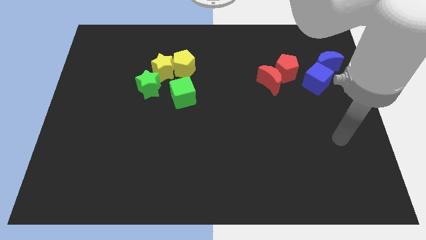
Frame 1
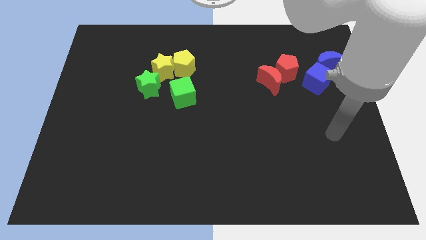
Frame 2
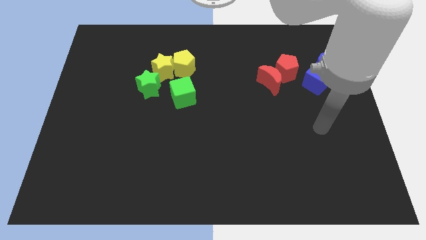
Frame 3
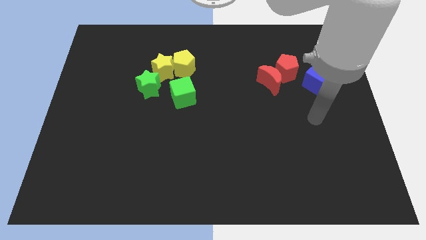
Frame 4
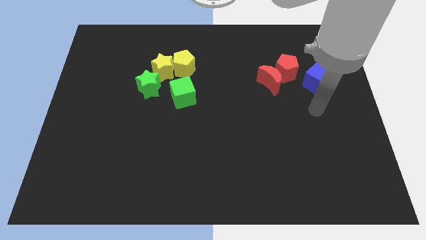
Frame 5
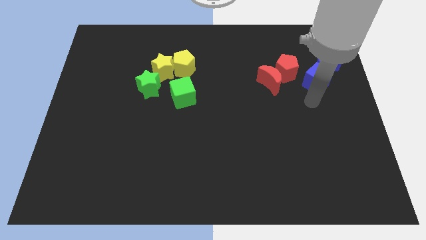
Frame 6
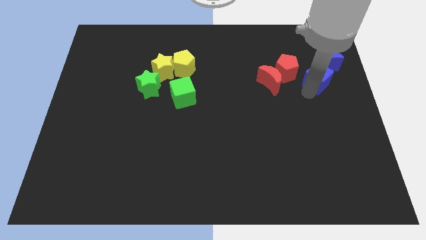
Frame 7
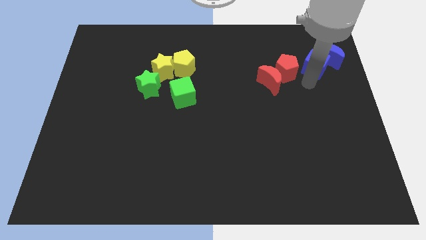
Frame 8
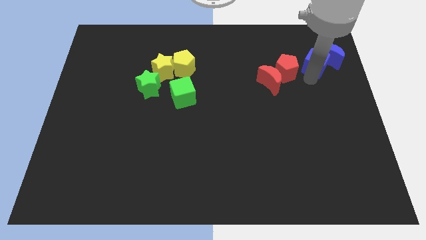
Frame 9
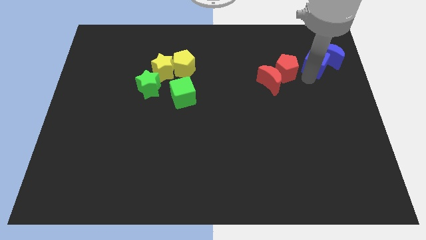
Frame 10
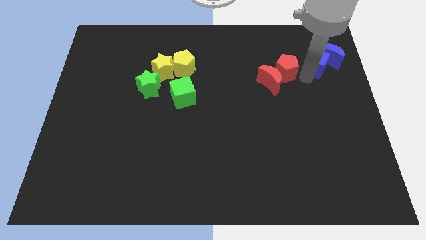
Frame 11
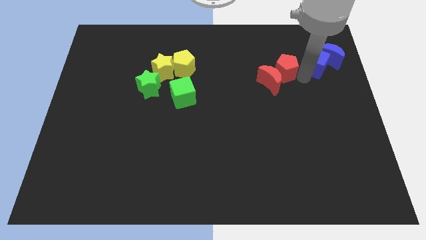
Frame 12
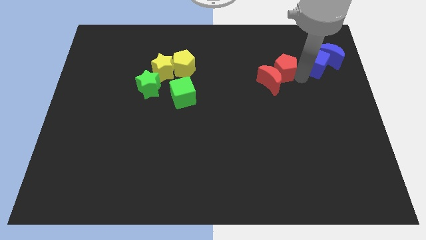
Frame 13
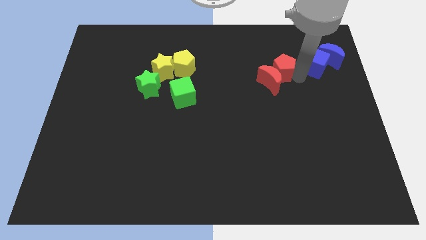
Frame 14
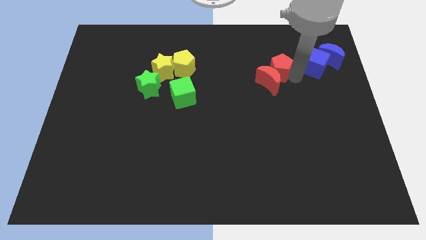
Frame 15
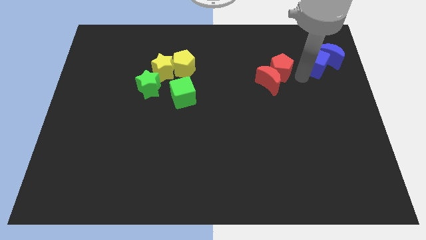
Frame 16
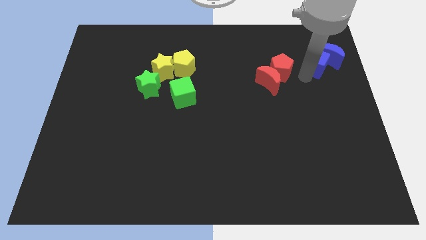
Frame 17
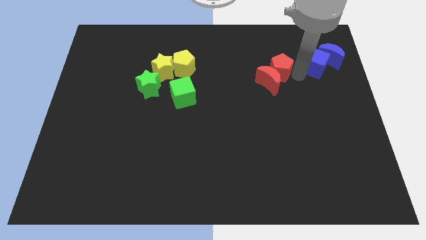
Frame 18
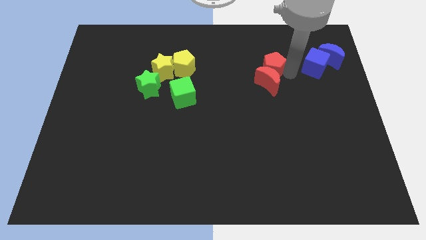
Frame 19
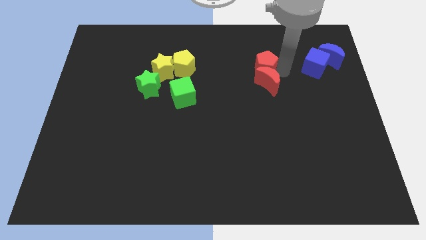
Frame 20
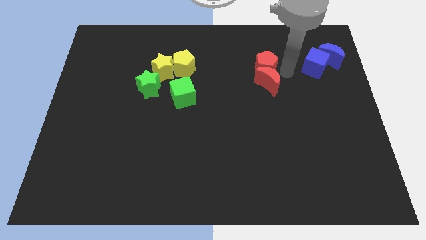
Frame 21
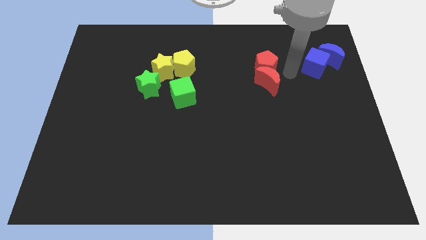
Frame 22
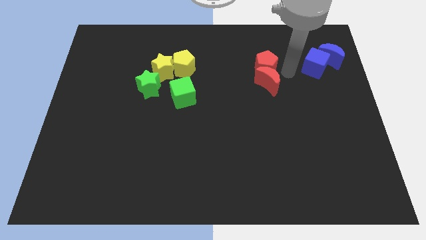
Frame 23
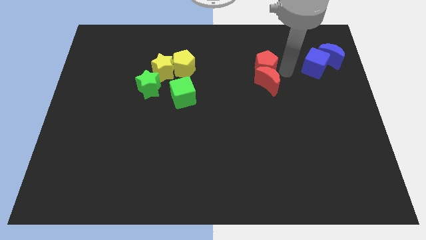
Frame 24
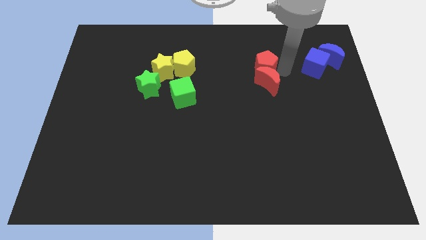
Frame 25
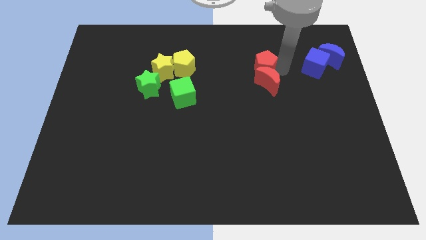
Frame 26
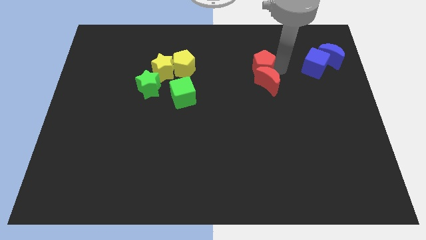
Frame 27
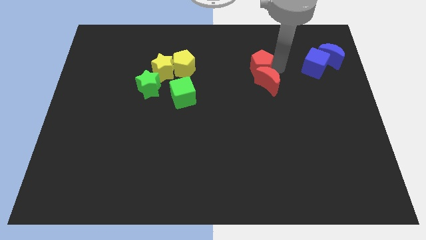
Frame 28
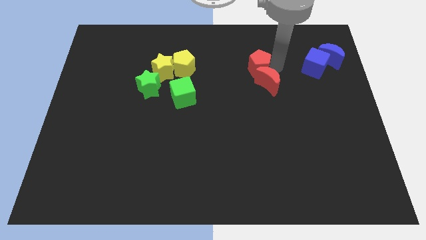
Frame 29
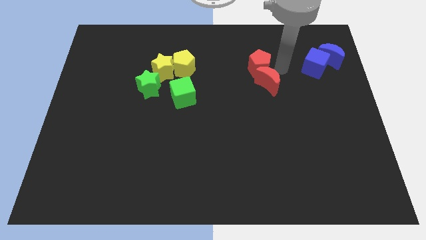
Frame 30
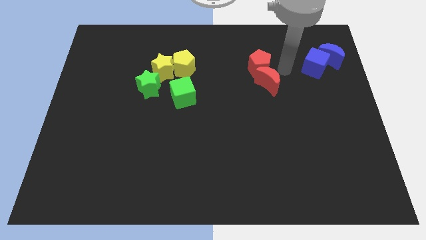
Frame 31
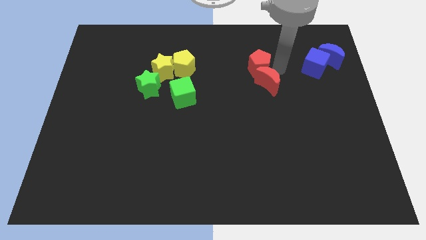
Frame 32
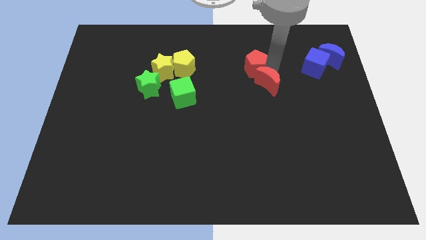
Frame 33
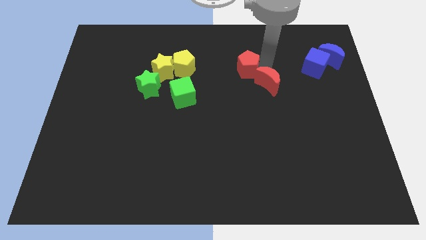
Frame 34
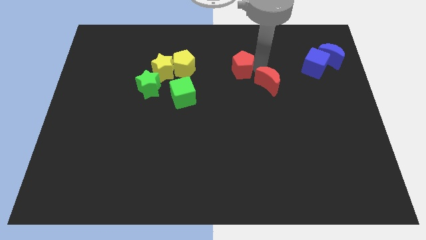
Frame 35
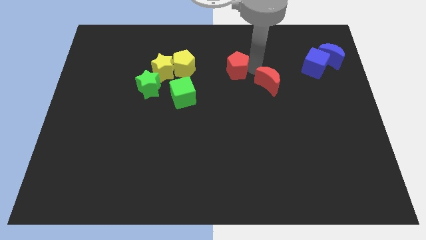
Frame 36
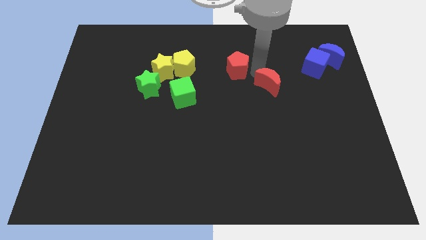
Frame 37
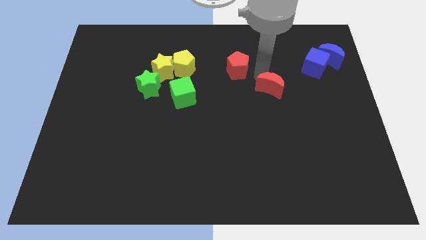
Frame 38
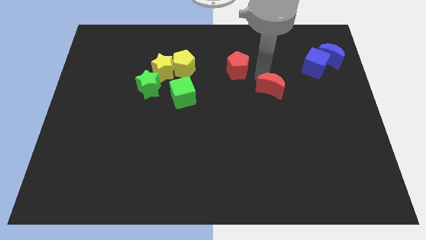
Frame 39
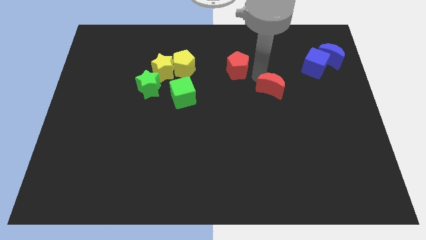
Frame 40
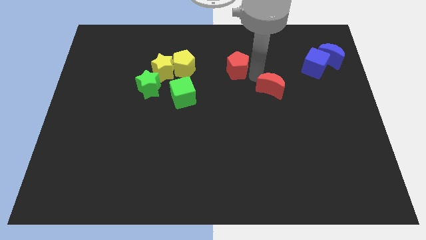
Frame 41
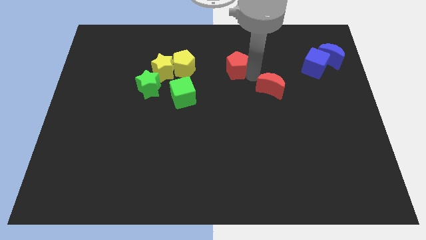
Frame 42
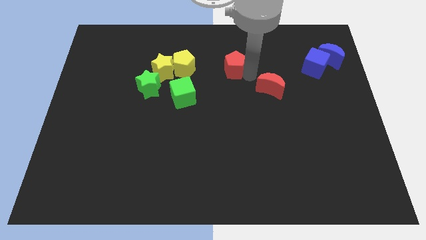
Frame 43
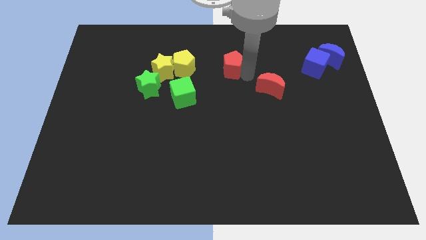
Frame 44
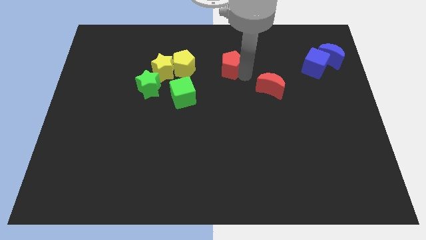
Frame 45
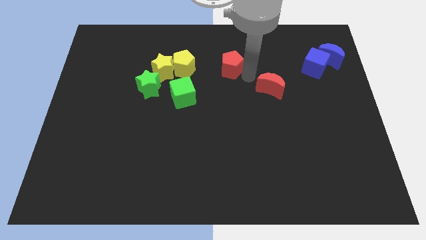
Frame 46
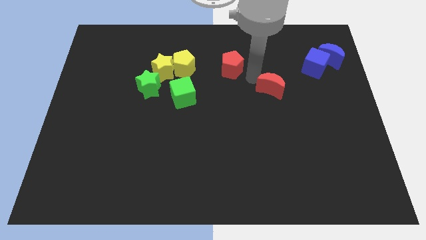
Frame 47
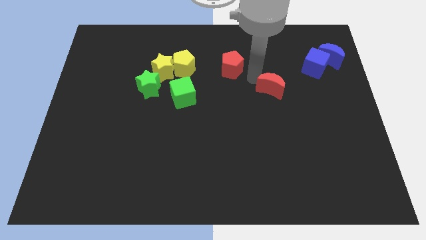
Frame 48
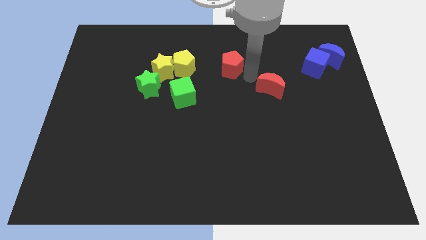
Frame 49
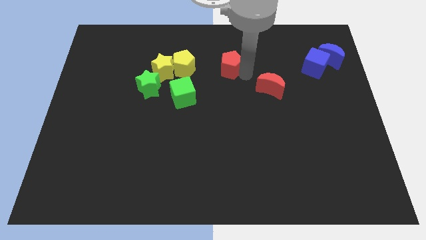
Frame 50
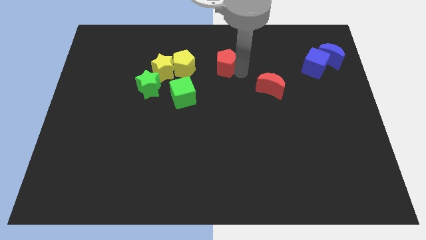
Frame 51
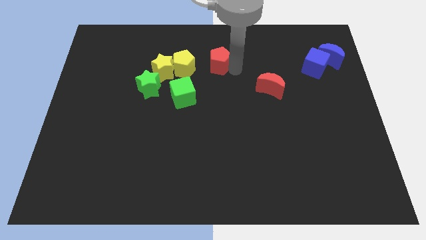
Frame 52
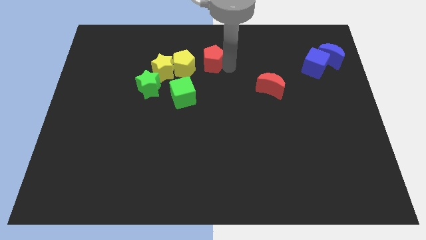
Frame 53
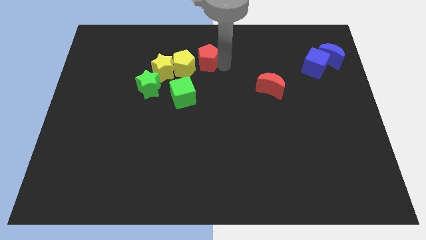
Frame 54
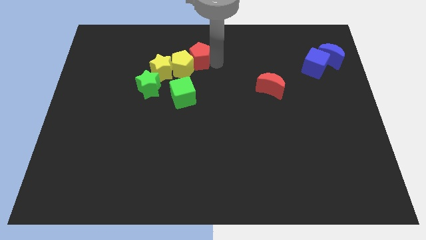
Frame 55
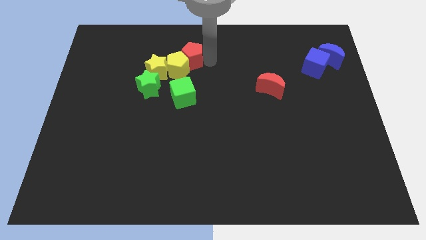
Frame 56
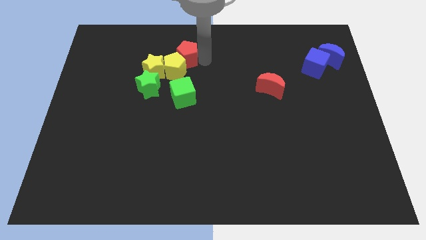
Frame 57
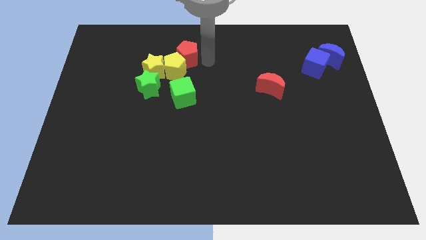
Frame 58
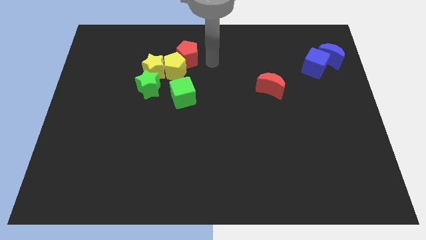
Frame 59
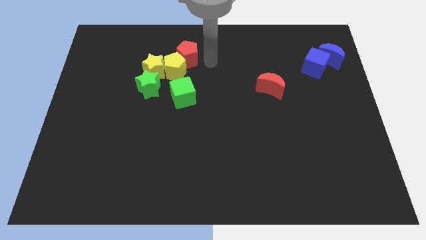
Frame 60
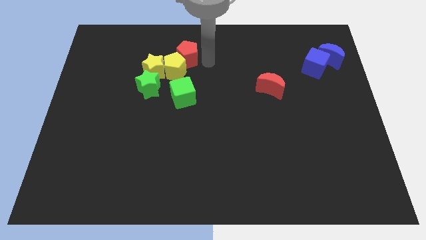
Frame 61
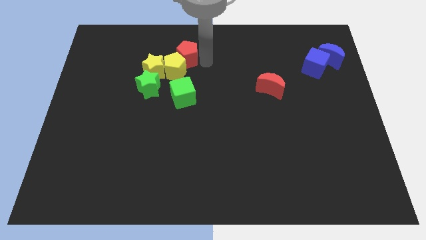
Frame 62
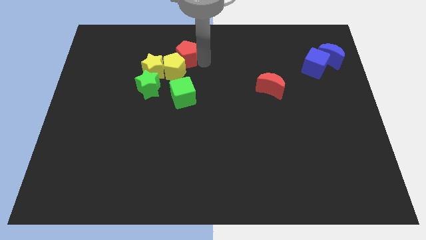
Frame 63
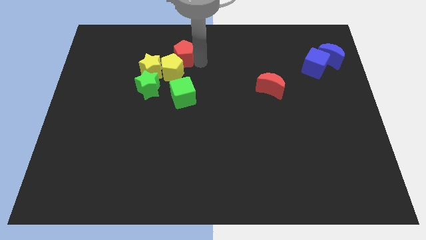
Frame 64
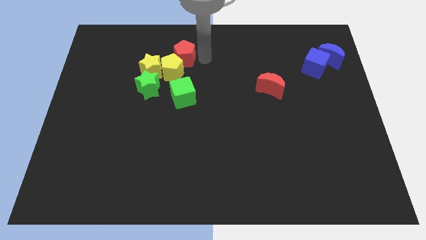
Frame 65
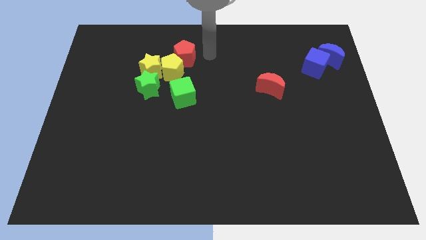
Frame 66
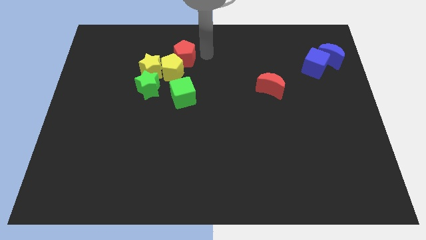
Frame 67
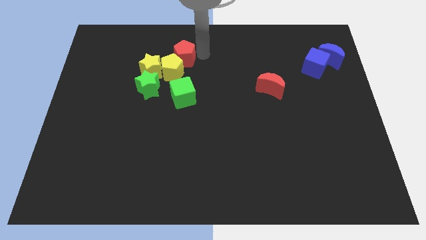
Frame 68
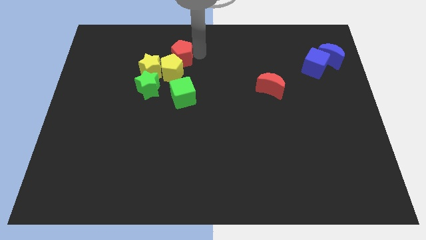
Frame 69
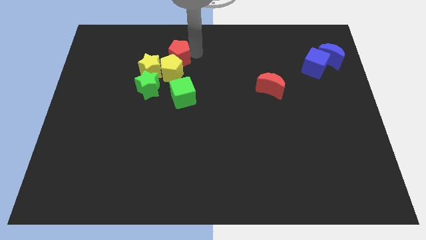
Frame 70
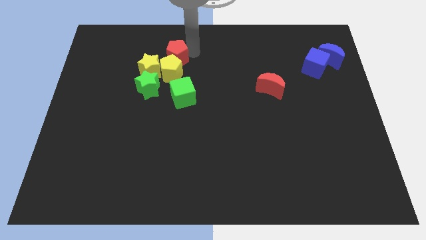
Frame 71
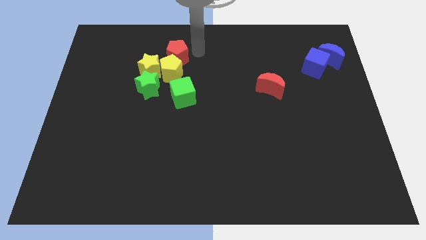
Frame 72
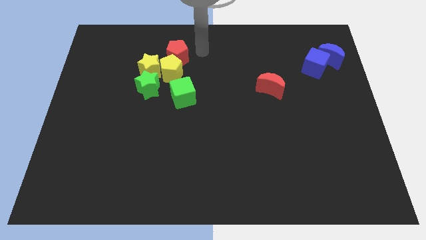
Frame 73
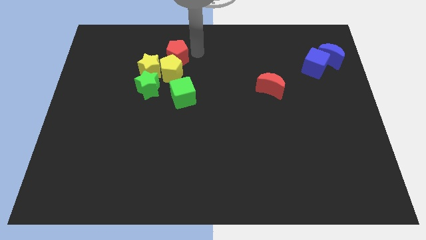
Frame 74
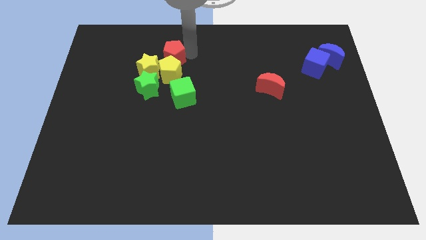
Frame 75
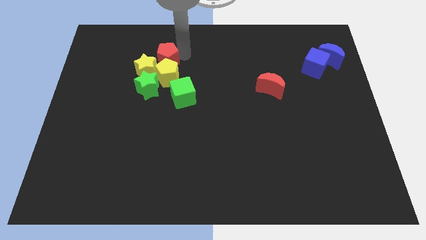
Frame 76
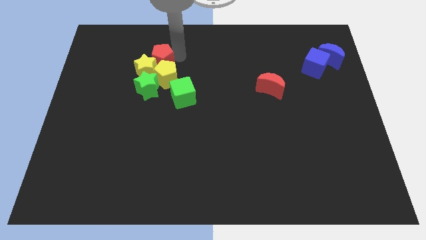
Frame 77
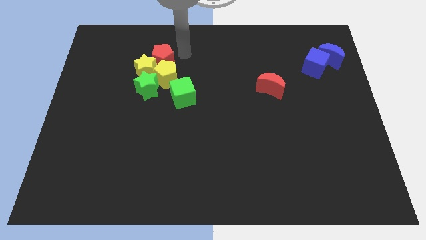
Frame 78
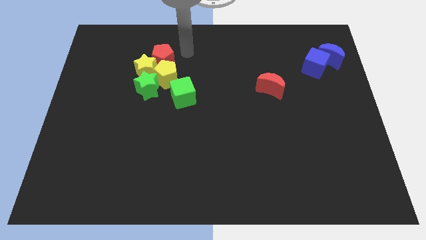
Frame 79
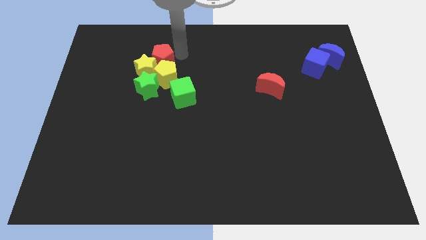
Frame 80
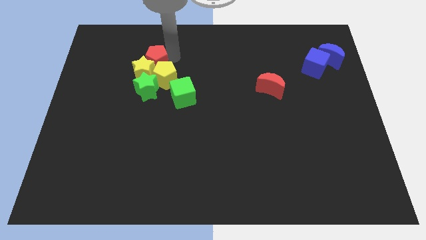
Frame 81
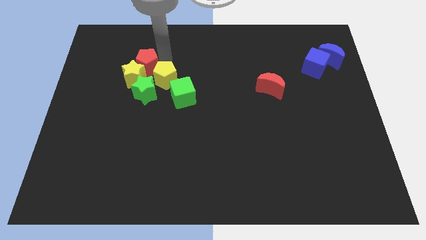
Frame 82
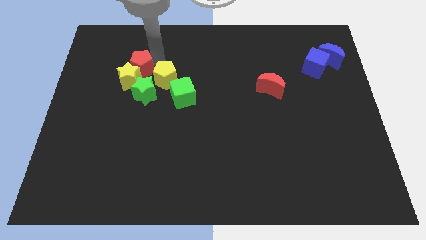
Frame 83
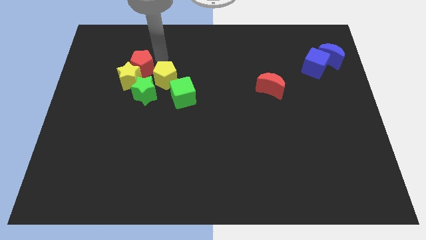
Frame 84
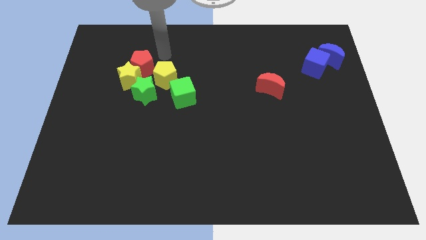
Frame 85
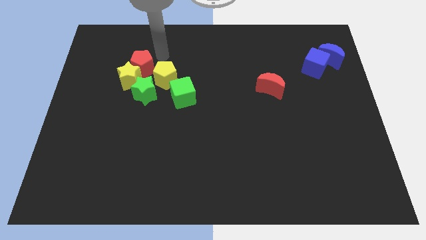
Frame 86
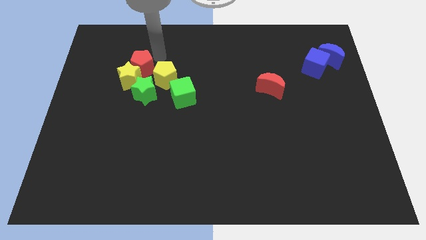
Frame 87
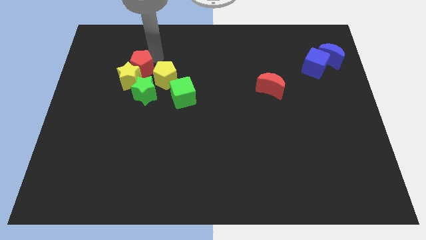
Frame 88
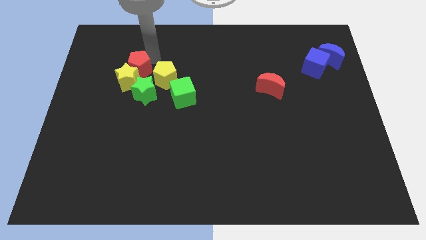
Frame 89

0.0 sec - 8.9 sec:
move the red pentagon diagonally up and to the left of the green star
